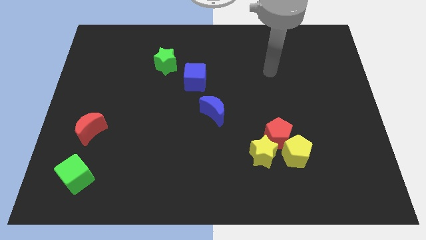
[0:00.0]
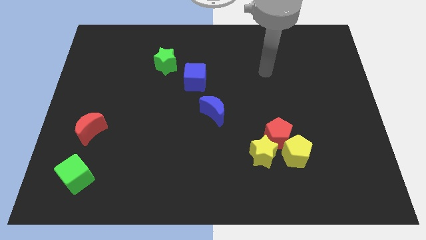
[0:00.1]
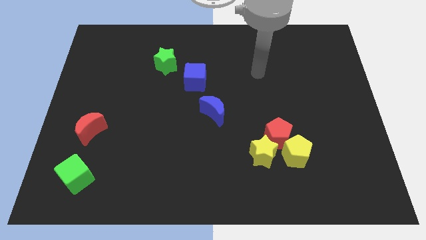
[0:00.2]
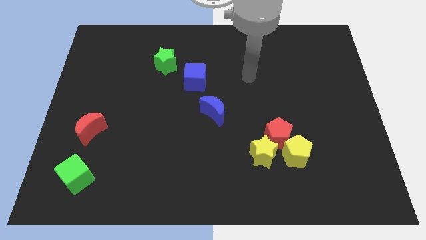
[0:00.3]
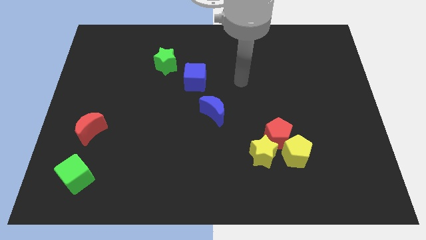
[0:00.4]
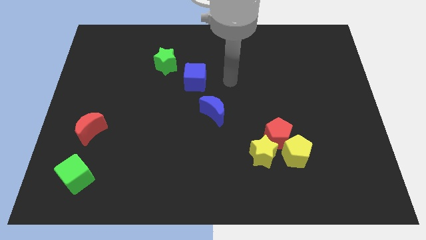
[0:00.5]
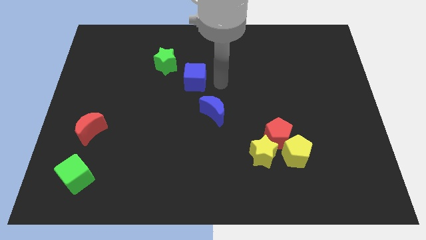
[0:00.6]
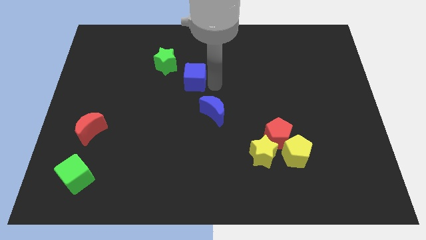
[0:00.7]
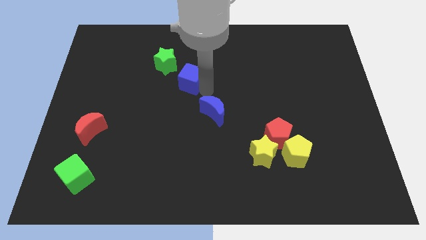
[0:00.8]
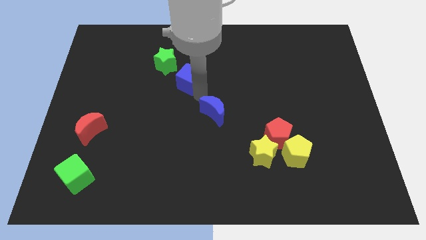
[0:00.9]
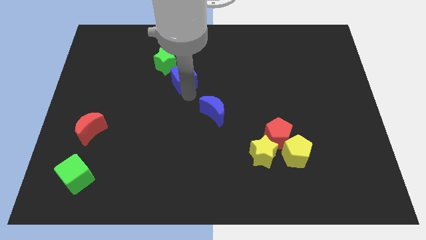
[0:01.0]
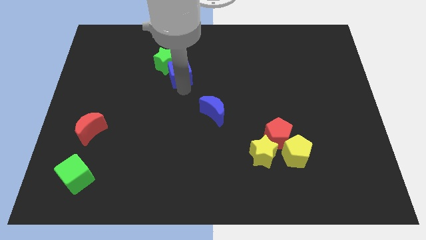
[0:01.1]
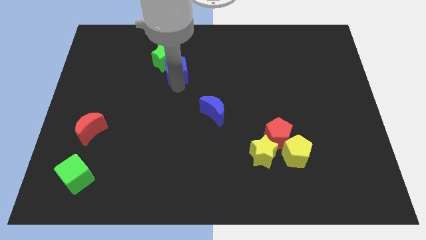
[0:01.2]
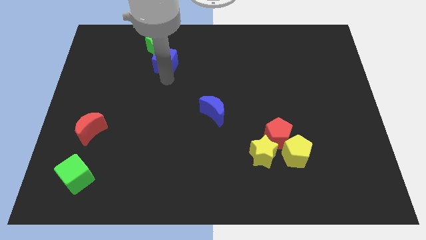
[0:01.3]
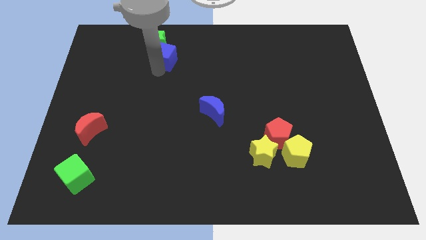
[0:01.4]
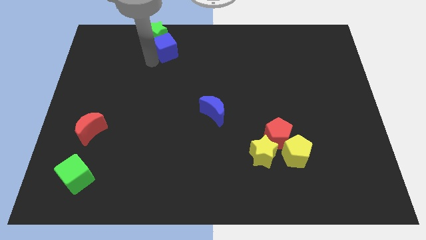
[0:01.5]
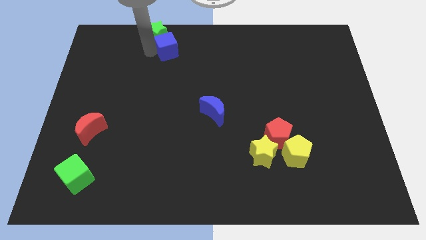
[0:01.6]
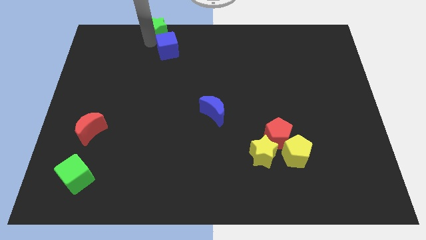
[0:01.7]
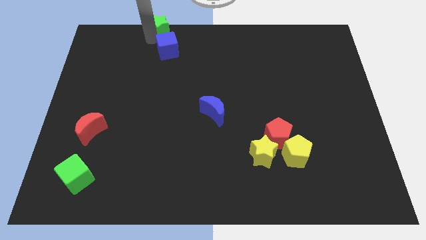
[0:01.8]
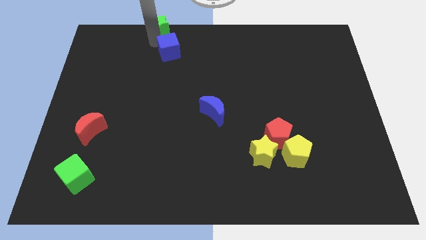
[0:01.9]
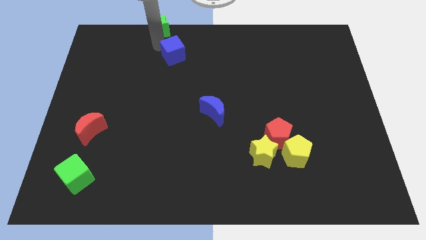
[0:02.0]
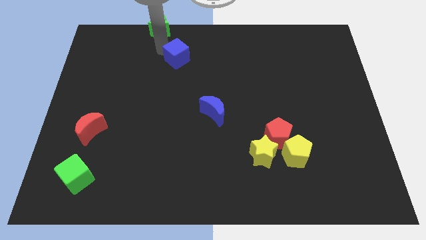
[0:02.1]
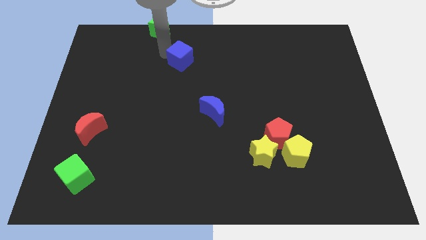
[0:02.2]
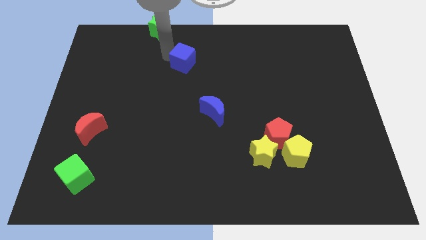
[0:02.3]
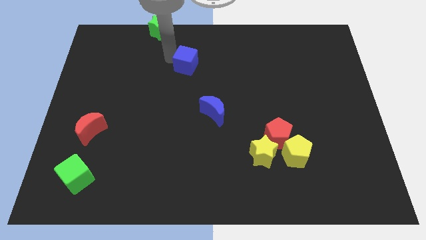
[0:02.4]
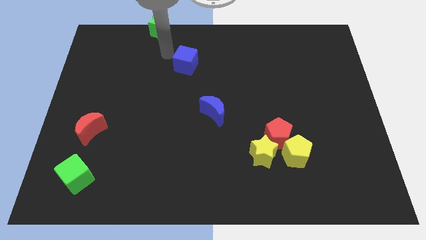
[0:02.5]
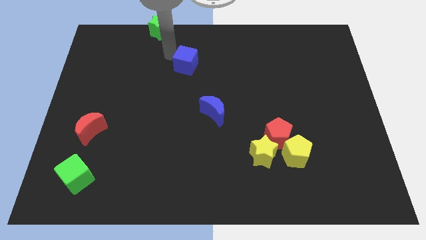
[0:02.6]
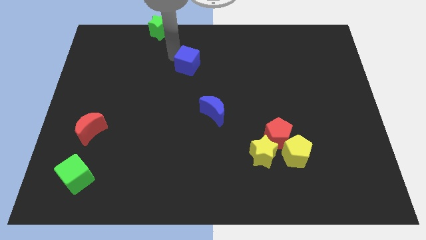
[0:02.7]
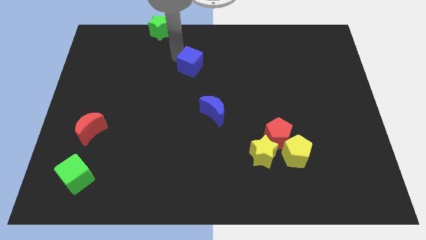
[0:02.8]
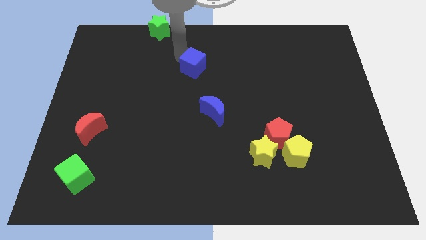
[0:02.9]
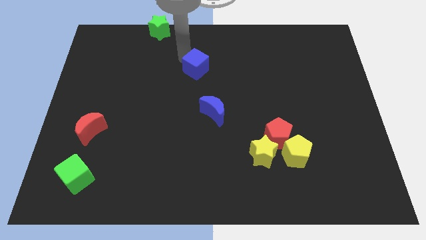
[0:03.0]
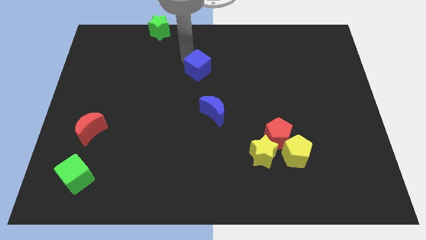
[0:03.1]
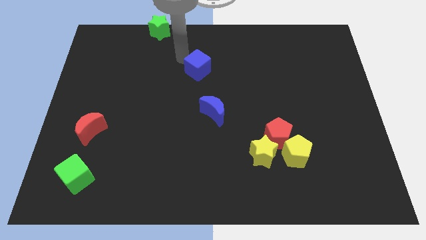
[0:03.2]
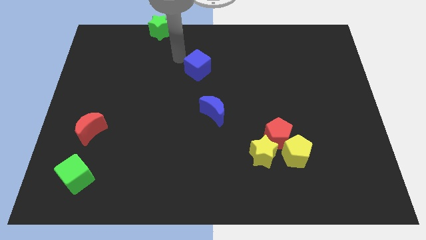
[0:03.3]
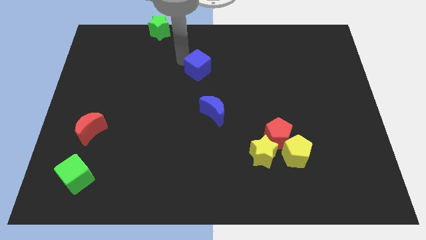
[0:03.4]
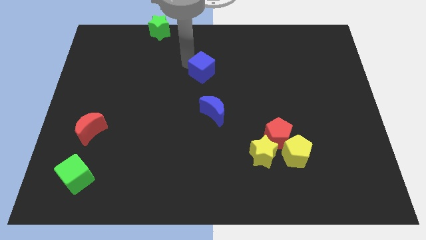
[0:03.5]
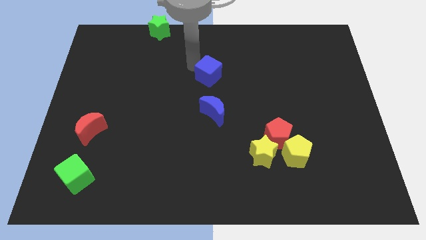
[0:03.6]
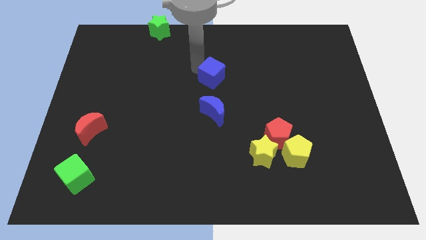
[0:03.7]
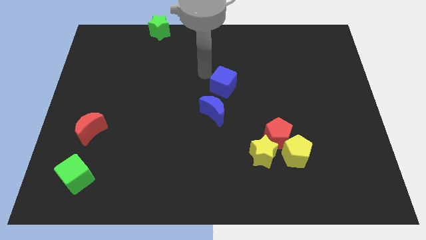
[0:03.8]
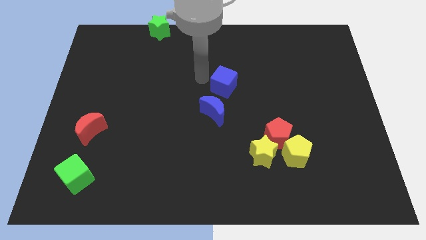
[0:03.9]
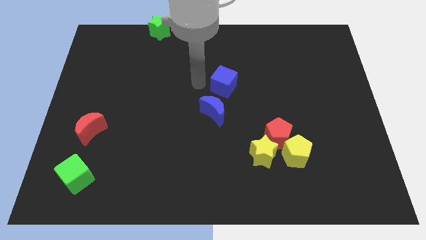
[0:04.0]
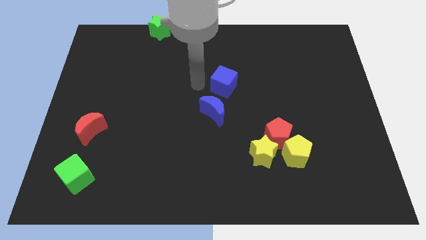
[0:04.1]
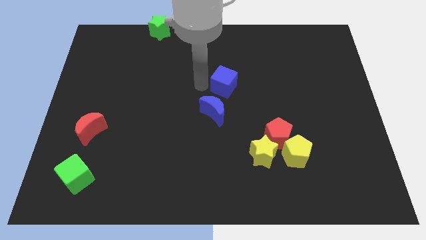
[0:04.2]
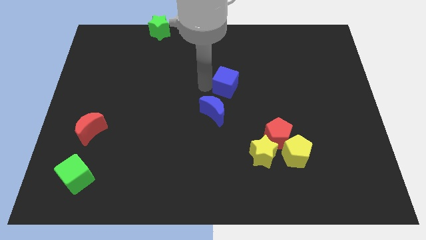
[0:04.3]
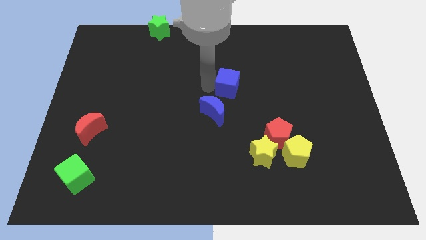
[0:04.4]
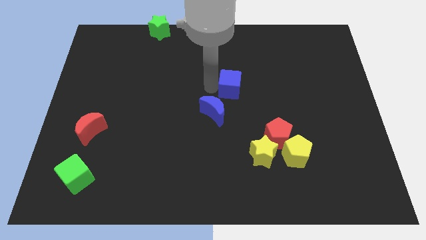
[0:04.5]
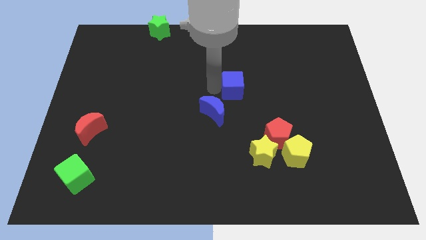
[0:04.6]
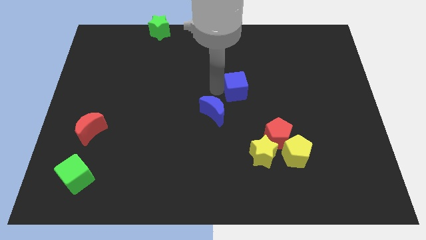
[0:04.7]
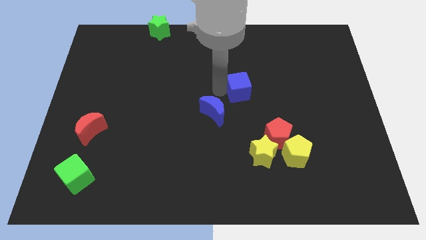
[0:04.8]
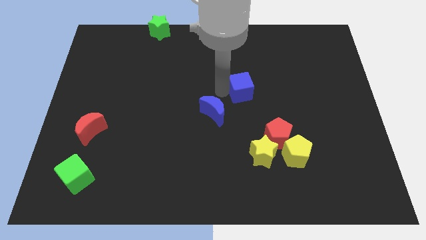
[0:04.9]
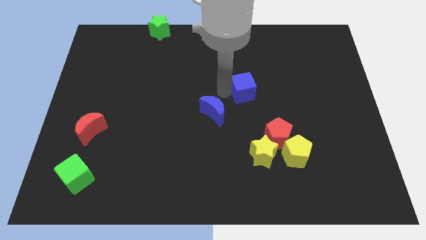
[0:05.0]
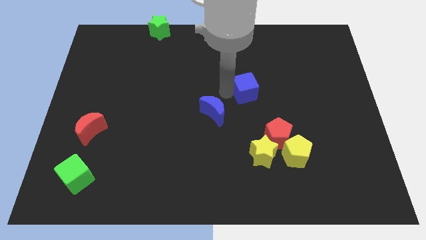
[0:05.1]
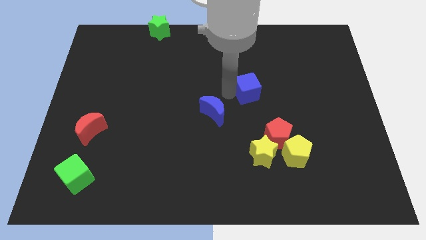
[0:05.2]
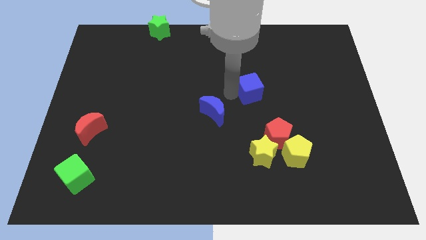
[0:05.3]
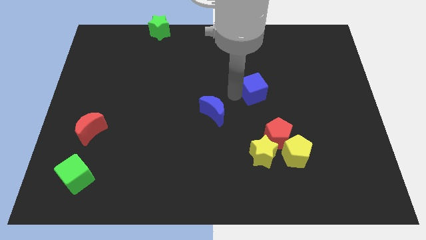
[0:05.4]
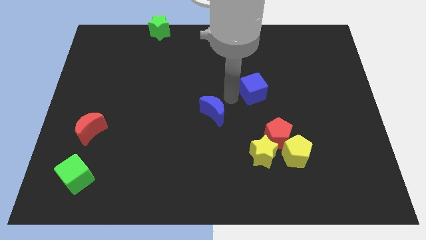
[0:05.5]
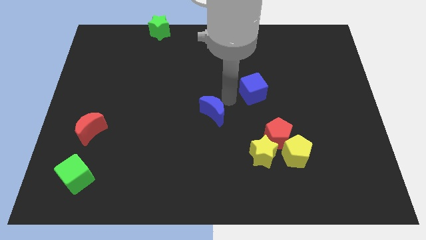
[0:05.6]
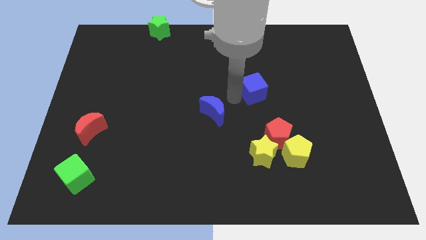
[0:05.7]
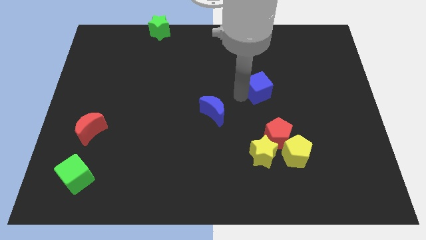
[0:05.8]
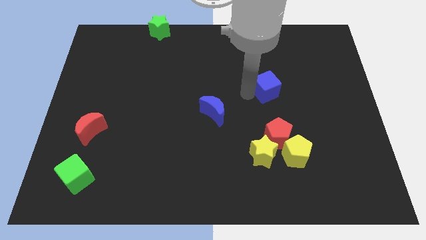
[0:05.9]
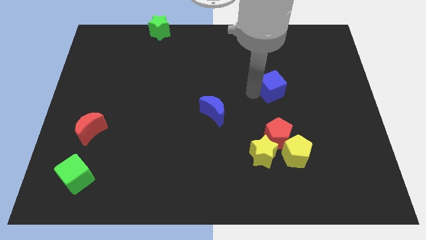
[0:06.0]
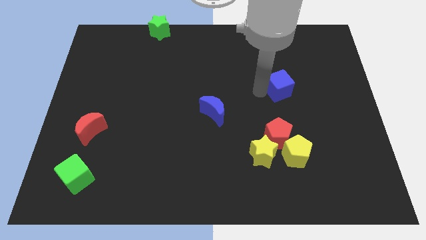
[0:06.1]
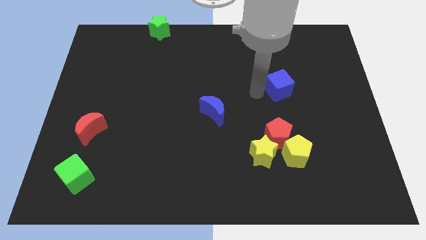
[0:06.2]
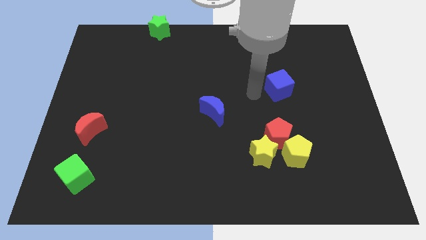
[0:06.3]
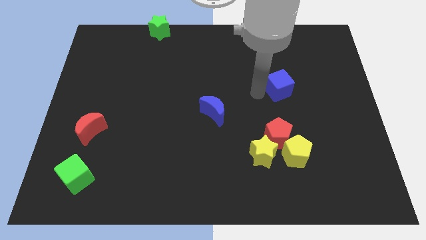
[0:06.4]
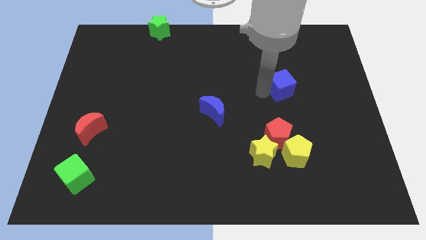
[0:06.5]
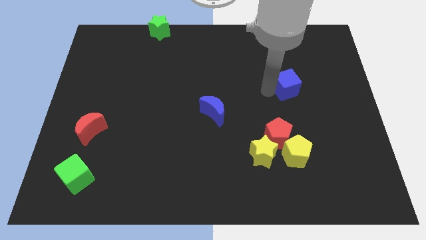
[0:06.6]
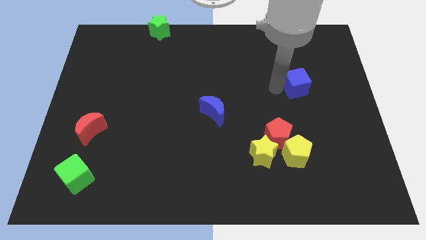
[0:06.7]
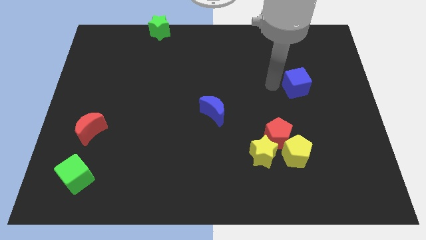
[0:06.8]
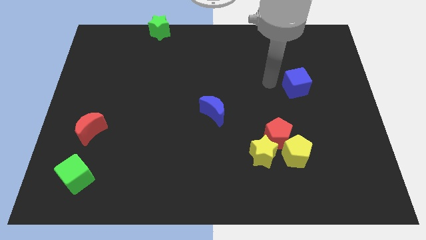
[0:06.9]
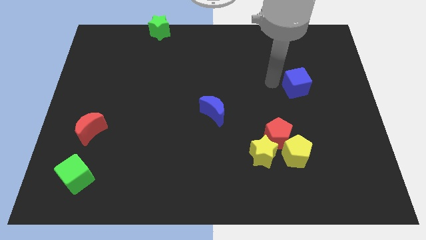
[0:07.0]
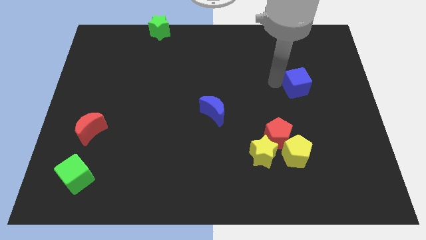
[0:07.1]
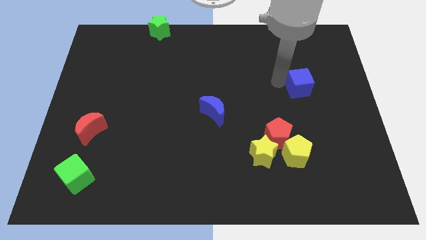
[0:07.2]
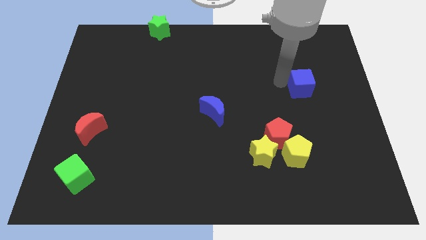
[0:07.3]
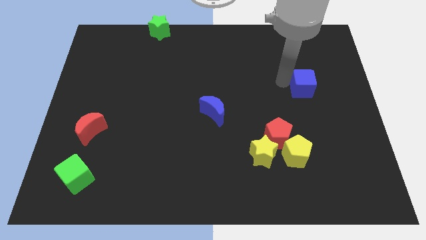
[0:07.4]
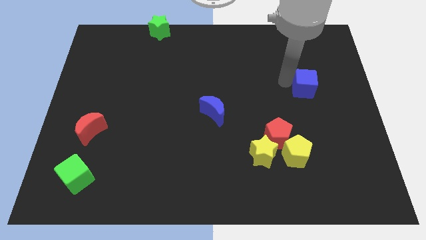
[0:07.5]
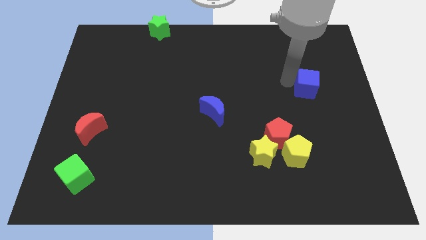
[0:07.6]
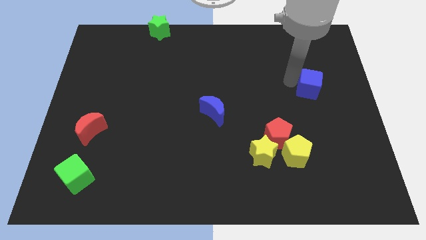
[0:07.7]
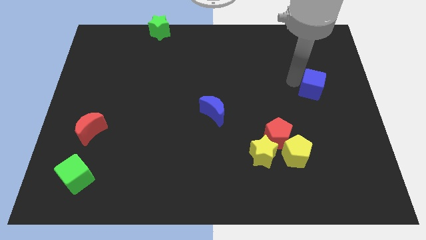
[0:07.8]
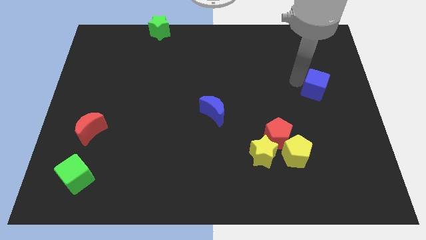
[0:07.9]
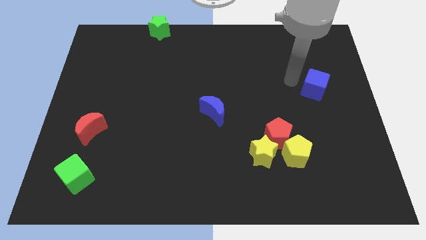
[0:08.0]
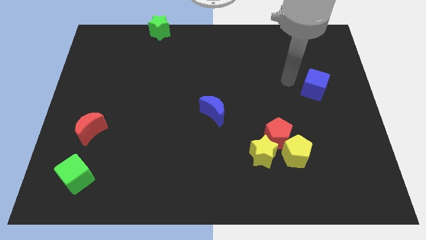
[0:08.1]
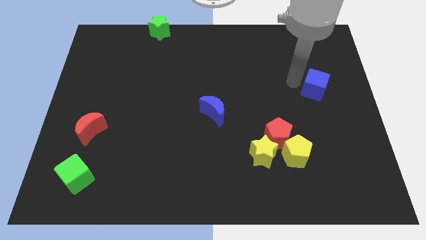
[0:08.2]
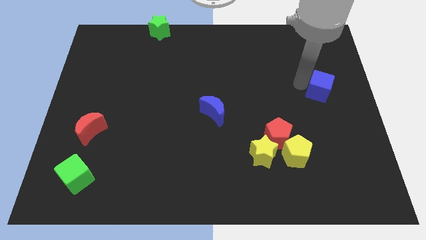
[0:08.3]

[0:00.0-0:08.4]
move the blue cube to the right side of the board
